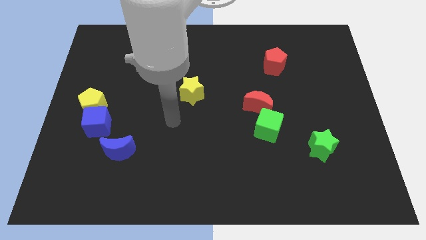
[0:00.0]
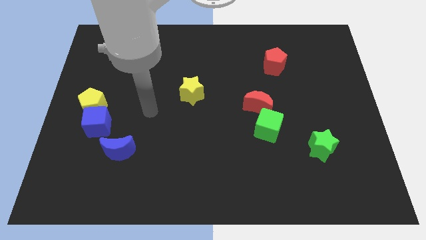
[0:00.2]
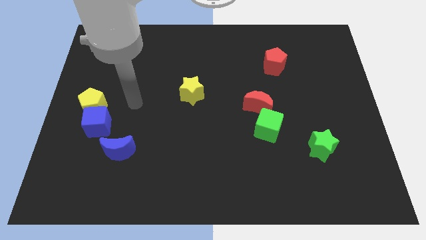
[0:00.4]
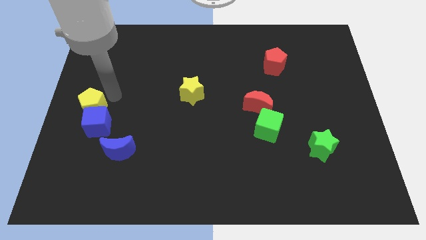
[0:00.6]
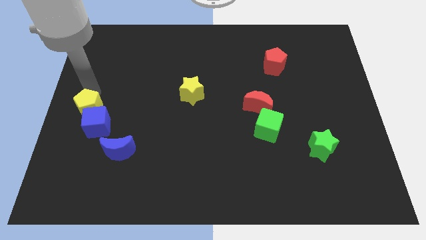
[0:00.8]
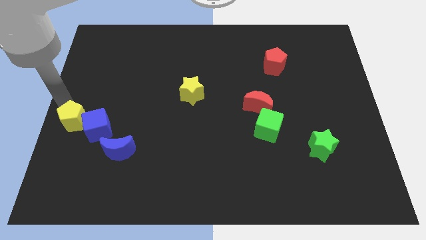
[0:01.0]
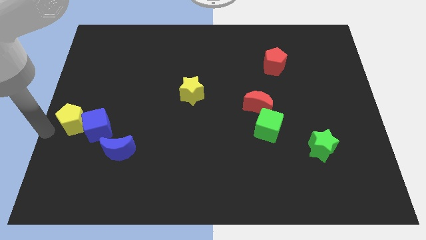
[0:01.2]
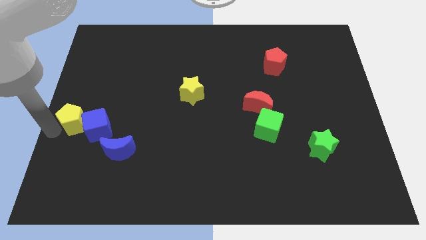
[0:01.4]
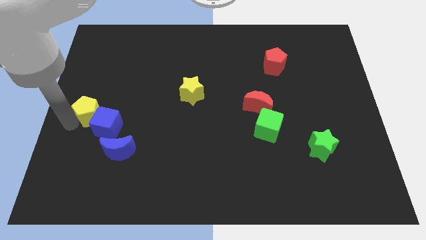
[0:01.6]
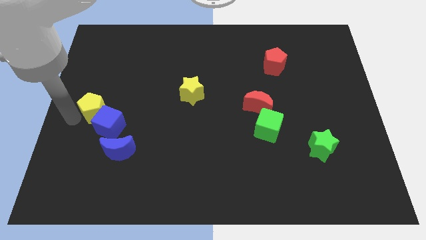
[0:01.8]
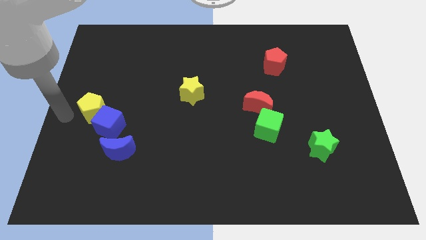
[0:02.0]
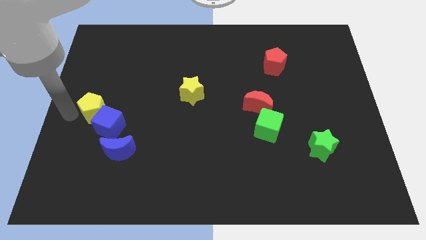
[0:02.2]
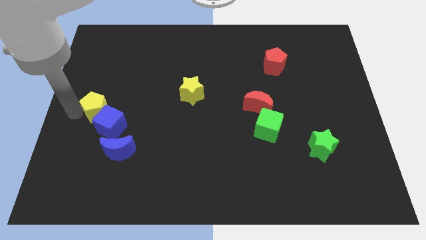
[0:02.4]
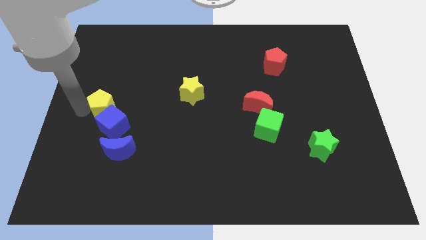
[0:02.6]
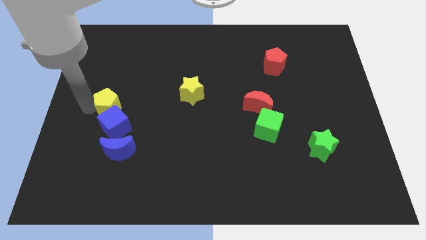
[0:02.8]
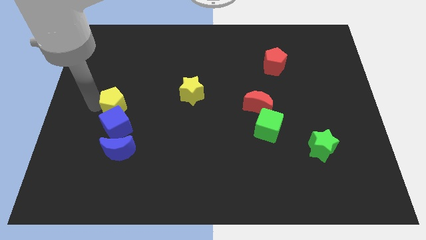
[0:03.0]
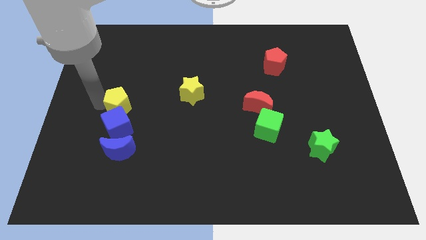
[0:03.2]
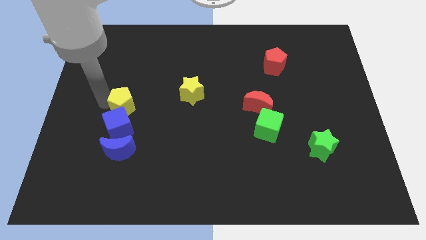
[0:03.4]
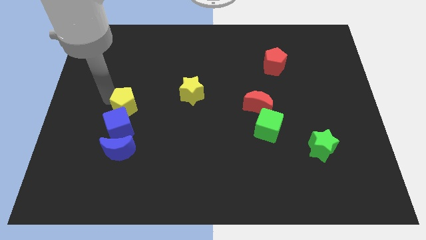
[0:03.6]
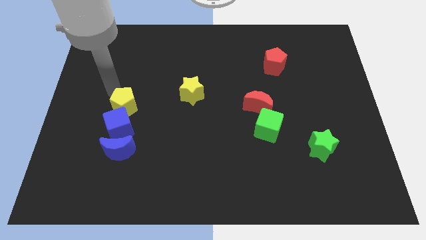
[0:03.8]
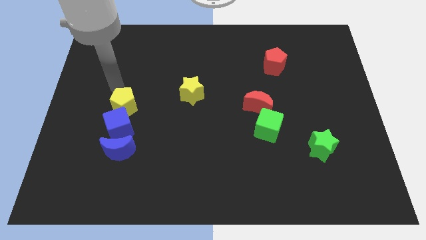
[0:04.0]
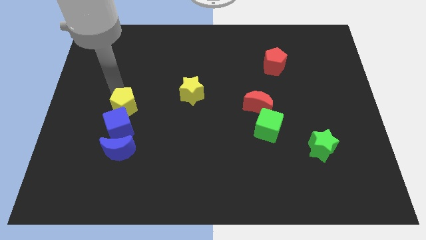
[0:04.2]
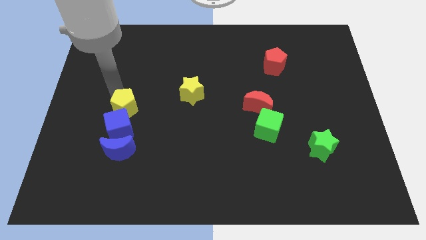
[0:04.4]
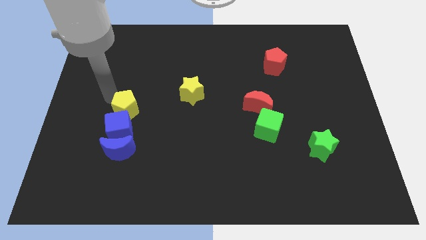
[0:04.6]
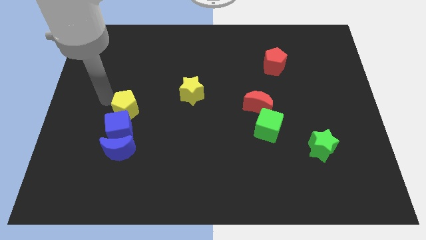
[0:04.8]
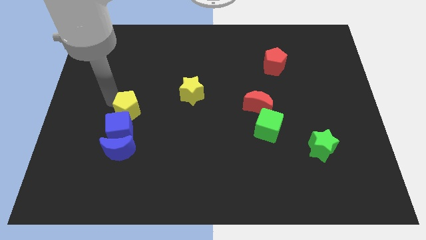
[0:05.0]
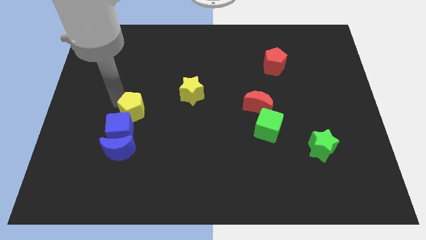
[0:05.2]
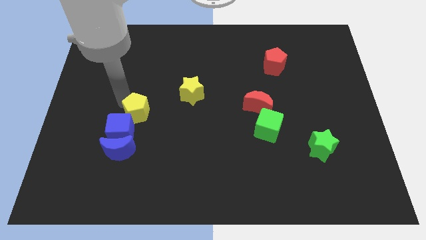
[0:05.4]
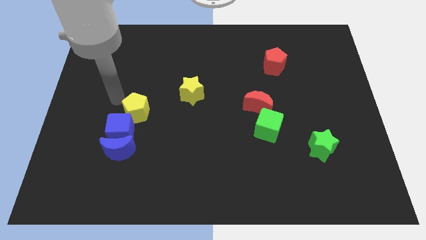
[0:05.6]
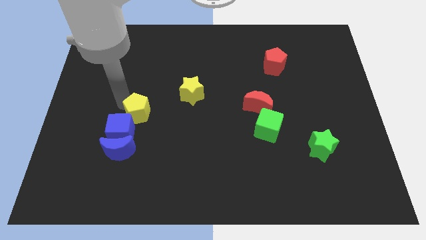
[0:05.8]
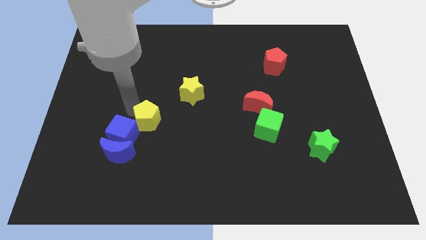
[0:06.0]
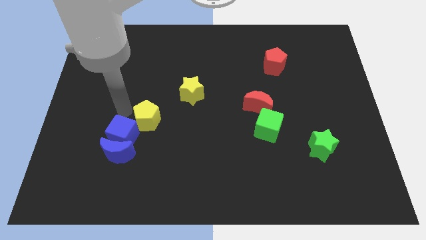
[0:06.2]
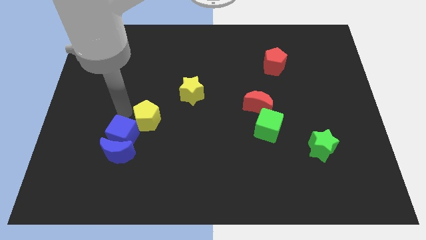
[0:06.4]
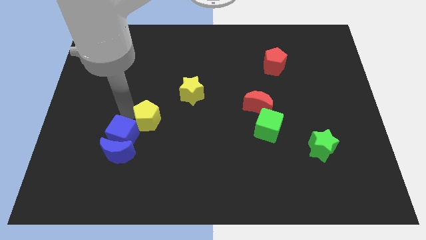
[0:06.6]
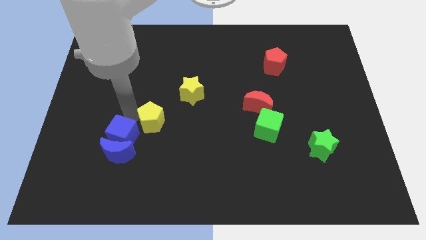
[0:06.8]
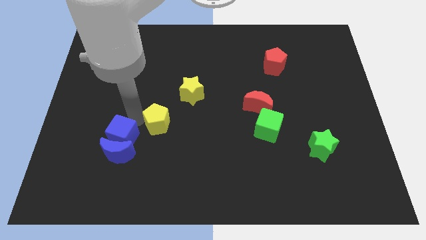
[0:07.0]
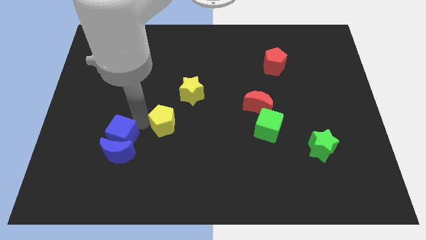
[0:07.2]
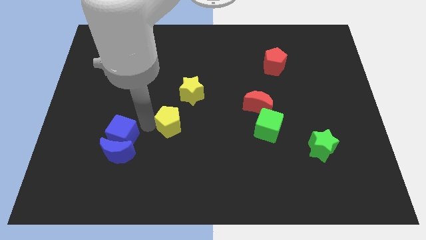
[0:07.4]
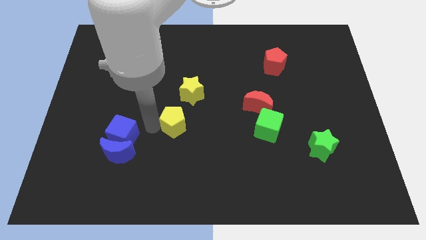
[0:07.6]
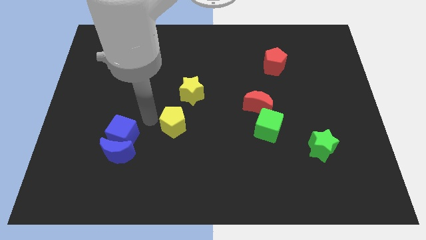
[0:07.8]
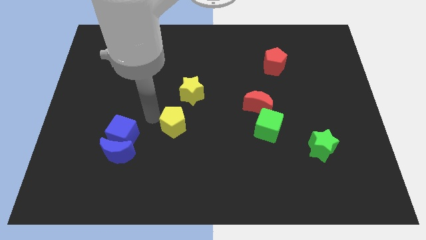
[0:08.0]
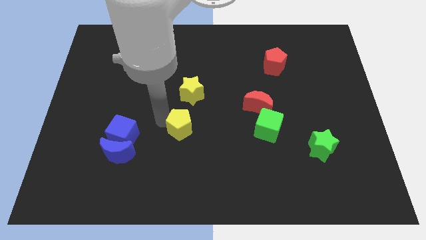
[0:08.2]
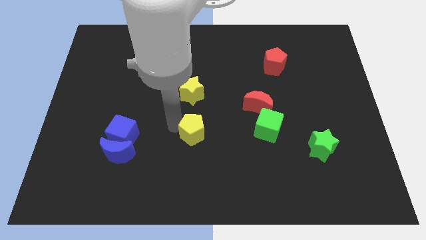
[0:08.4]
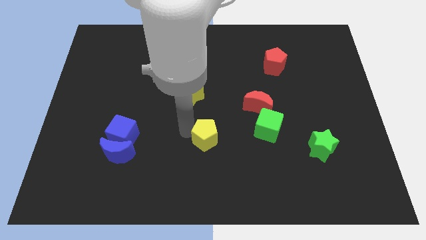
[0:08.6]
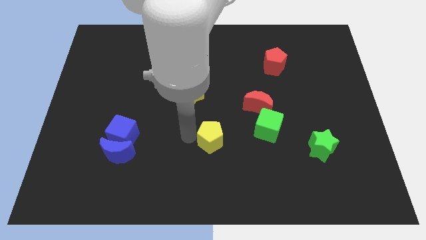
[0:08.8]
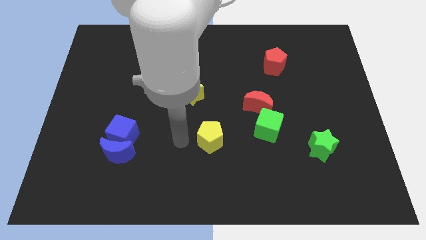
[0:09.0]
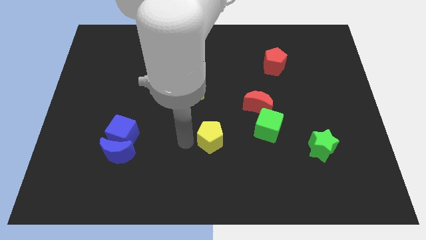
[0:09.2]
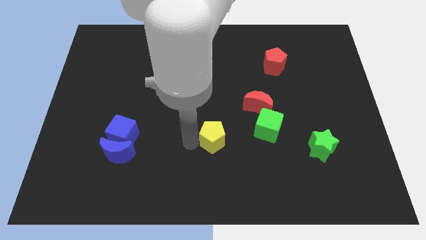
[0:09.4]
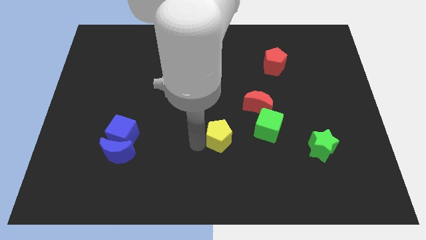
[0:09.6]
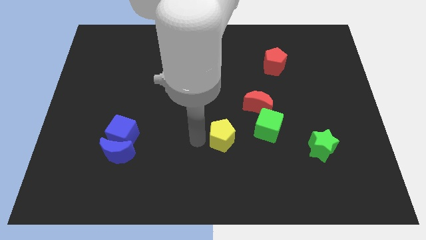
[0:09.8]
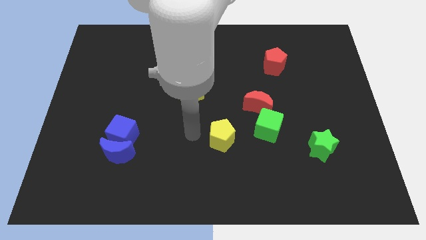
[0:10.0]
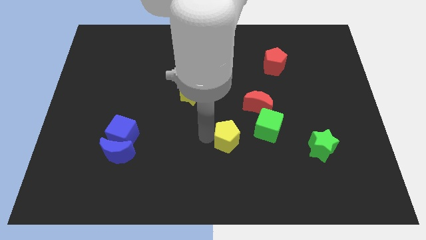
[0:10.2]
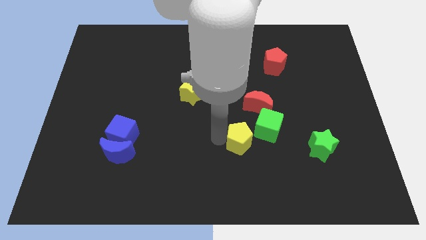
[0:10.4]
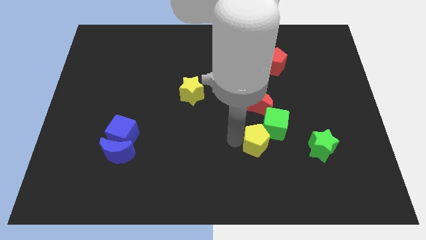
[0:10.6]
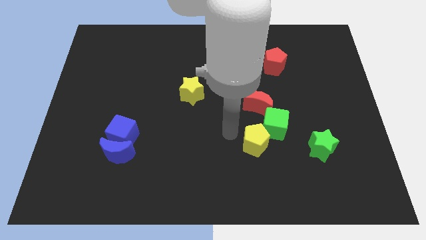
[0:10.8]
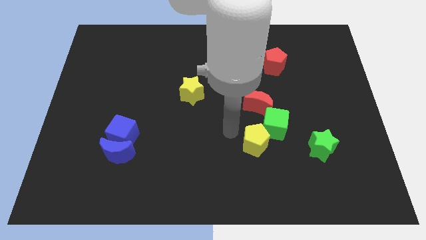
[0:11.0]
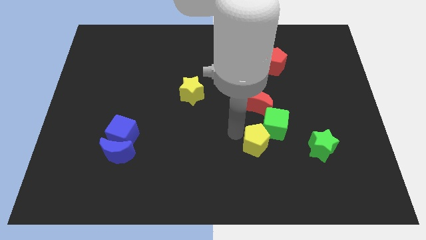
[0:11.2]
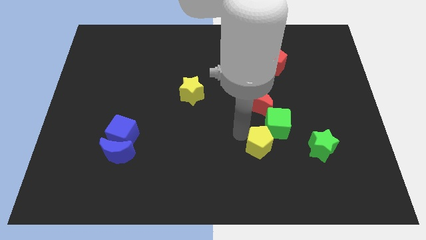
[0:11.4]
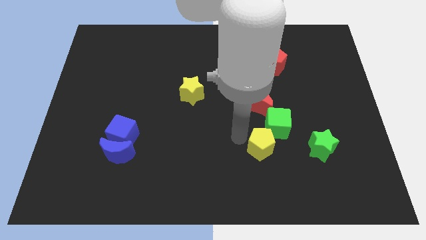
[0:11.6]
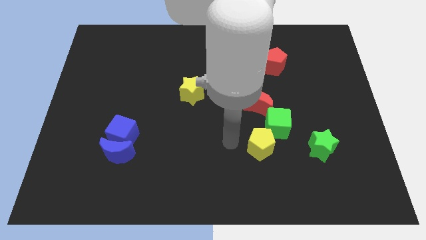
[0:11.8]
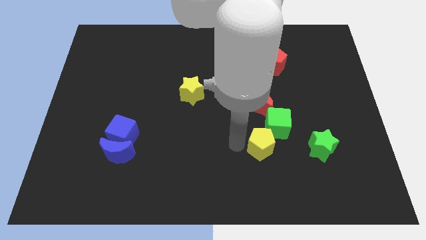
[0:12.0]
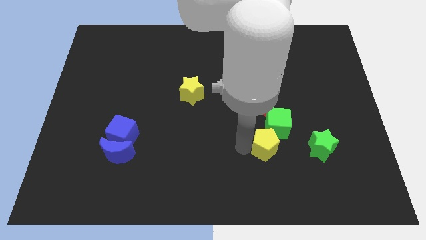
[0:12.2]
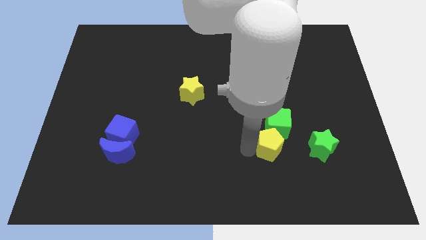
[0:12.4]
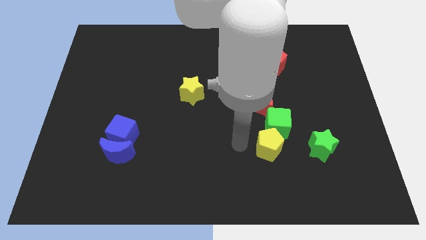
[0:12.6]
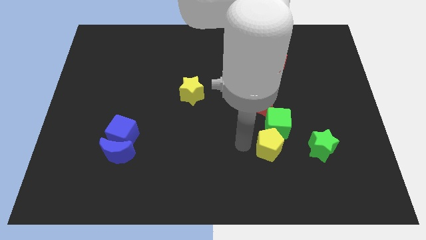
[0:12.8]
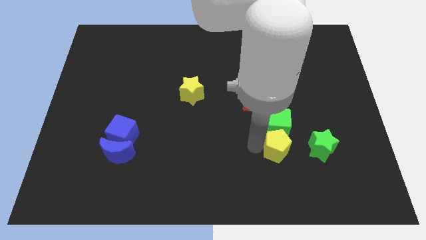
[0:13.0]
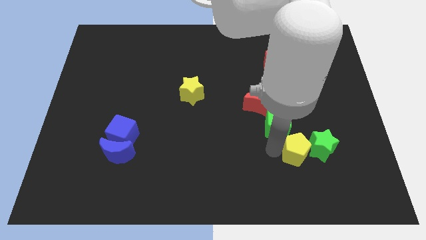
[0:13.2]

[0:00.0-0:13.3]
push the yellow pentagon towards the green star
